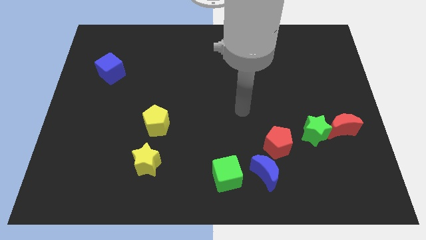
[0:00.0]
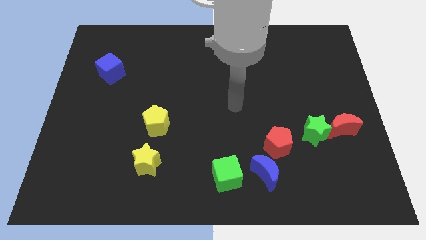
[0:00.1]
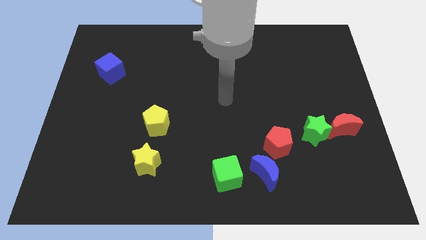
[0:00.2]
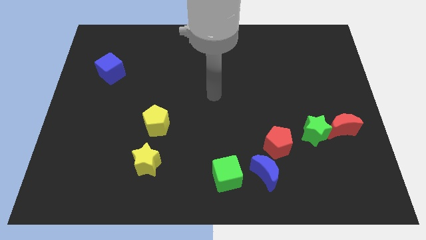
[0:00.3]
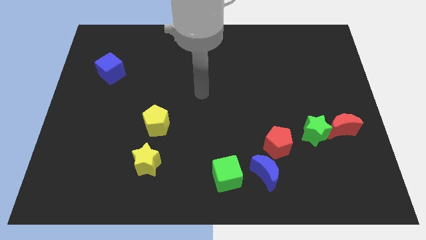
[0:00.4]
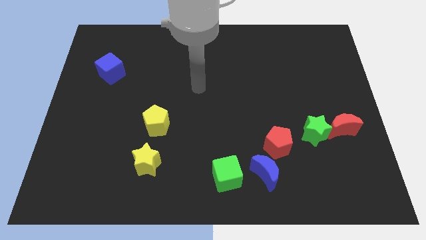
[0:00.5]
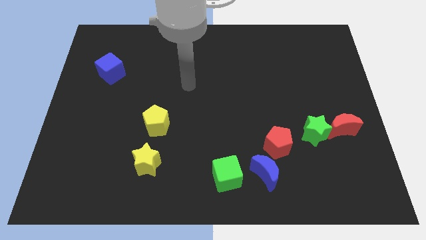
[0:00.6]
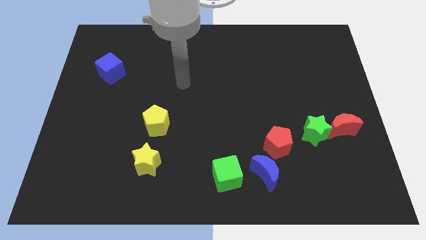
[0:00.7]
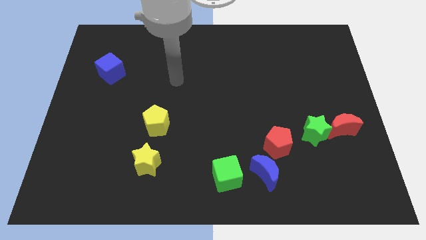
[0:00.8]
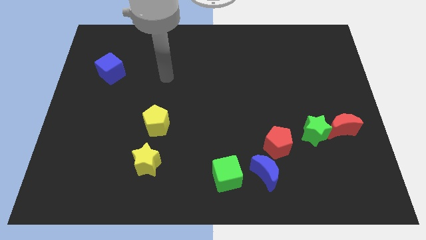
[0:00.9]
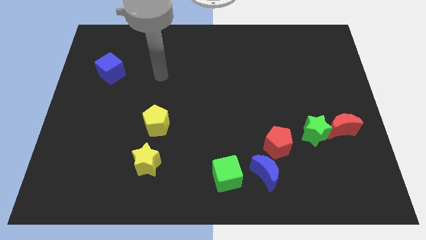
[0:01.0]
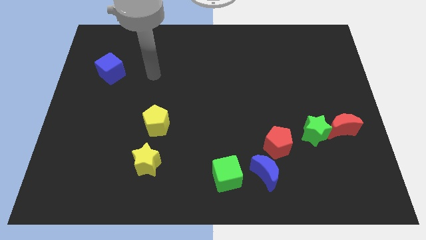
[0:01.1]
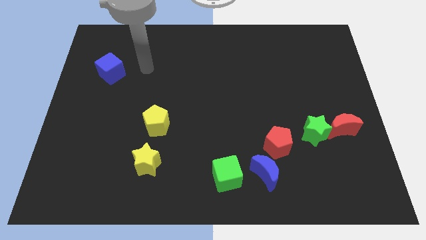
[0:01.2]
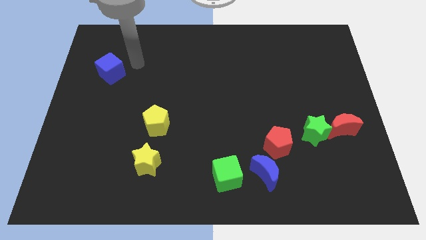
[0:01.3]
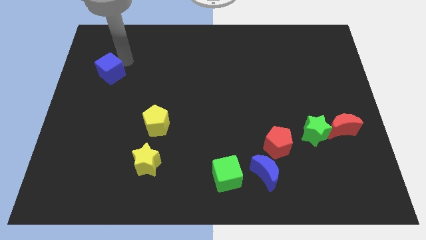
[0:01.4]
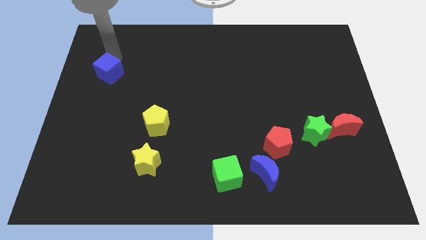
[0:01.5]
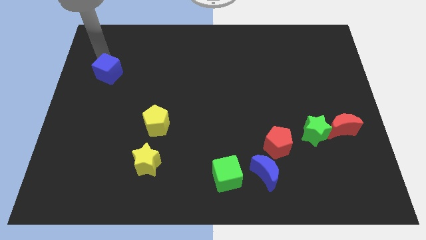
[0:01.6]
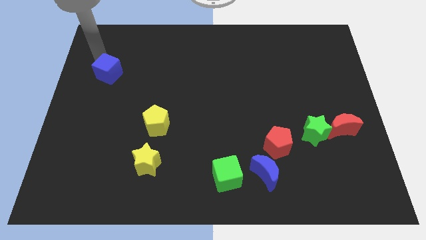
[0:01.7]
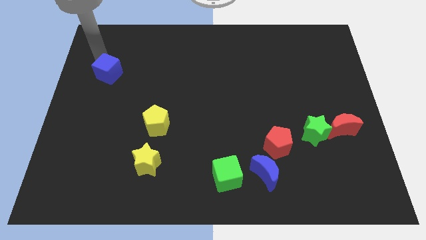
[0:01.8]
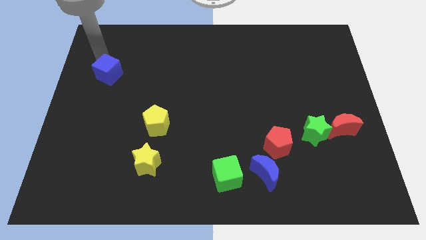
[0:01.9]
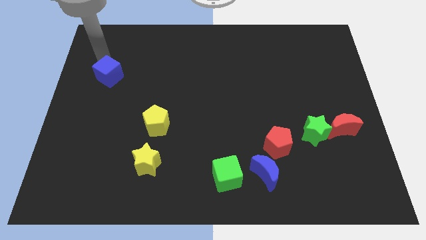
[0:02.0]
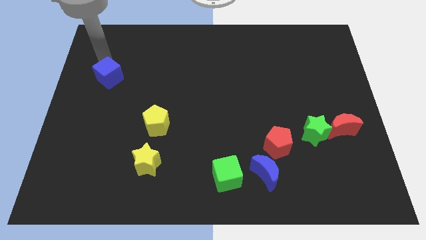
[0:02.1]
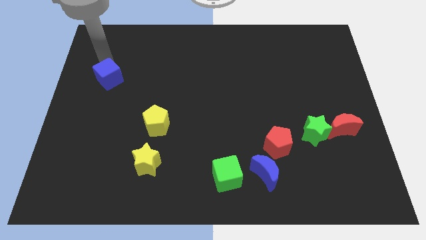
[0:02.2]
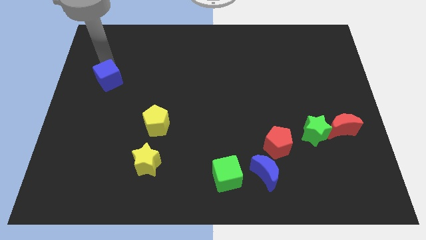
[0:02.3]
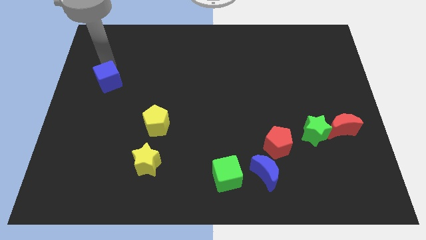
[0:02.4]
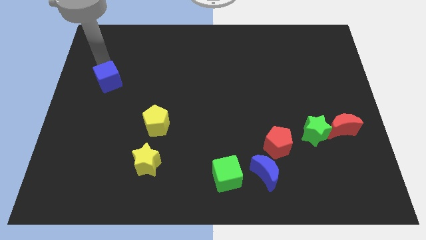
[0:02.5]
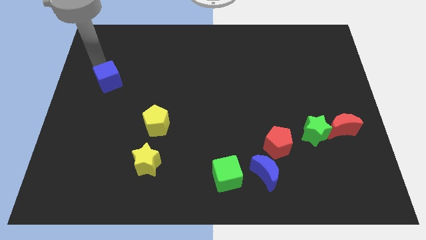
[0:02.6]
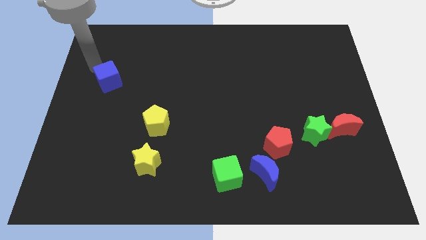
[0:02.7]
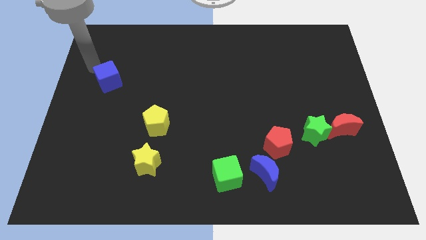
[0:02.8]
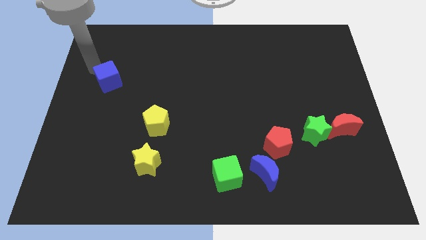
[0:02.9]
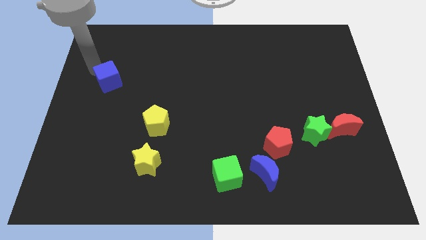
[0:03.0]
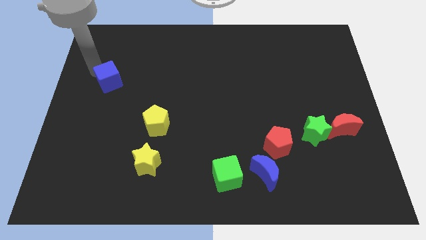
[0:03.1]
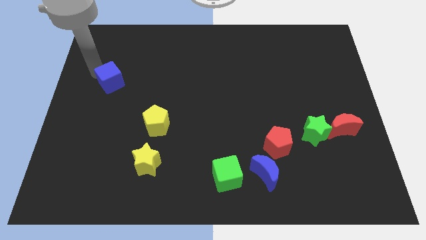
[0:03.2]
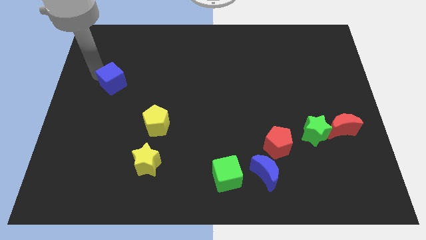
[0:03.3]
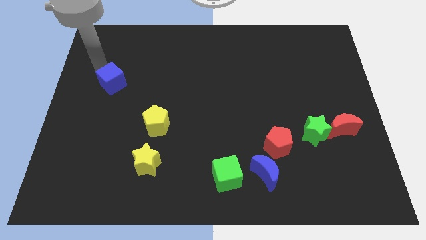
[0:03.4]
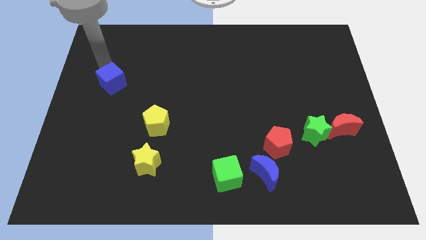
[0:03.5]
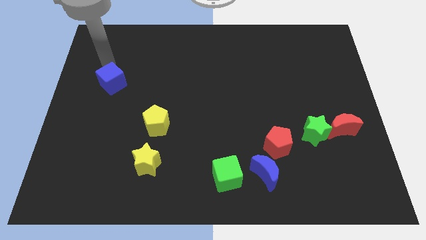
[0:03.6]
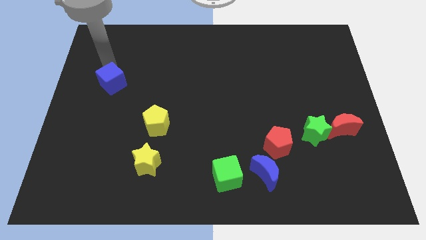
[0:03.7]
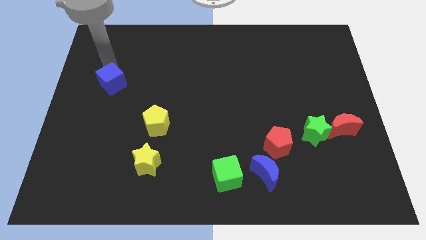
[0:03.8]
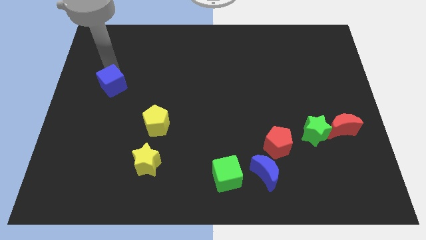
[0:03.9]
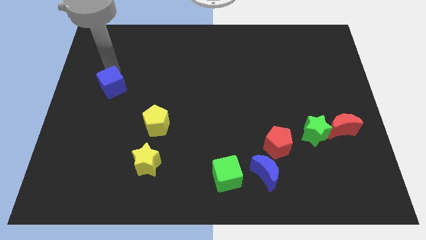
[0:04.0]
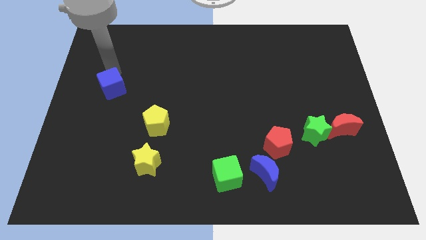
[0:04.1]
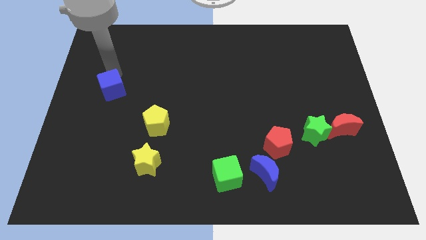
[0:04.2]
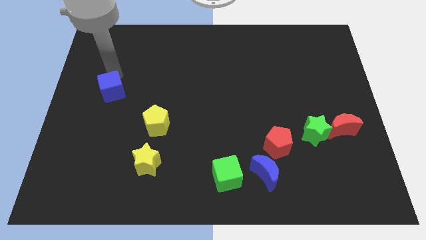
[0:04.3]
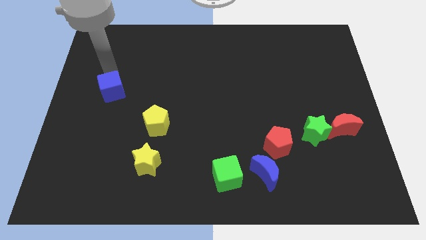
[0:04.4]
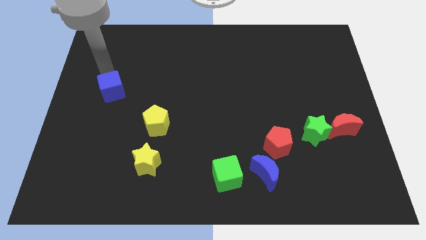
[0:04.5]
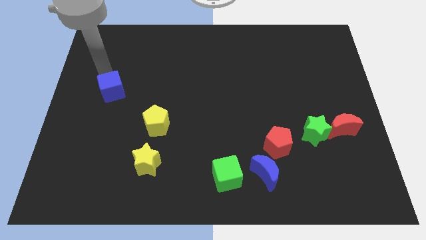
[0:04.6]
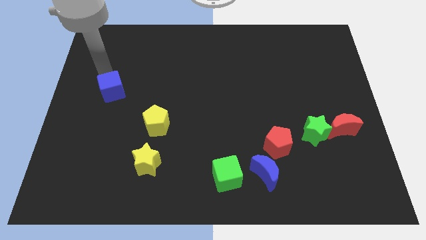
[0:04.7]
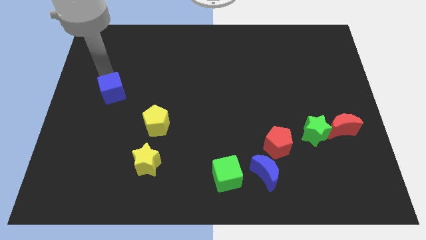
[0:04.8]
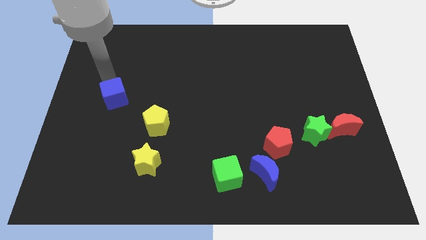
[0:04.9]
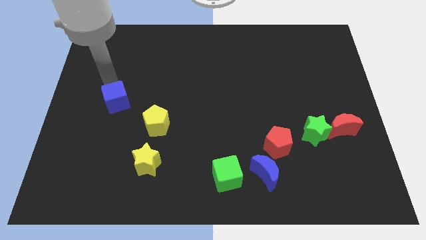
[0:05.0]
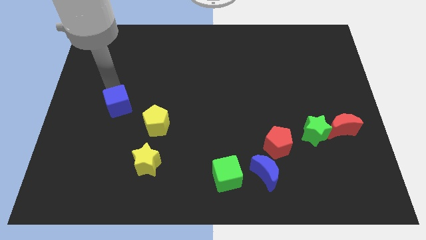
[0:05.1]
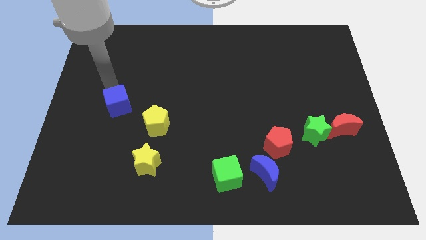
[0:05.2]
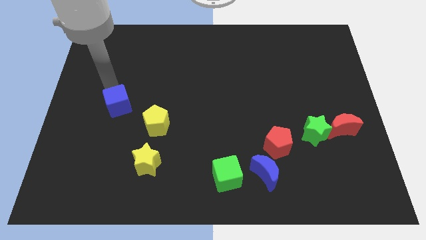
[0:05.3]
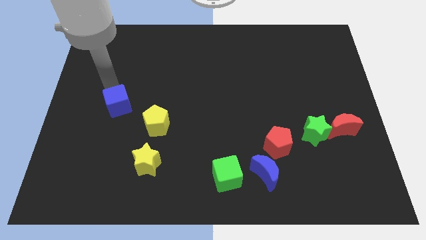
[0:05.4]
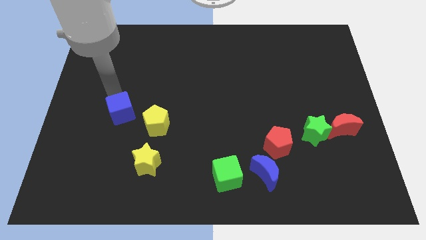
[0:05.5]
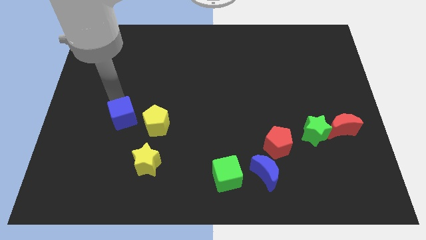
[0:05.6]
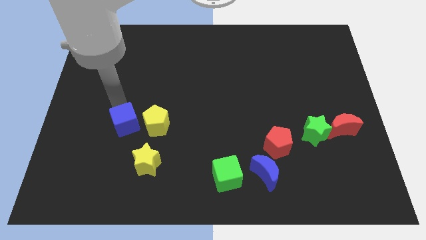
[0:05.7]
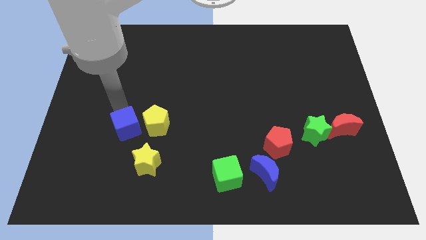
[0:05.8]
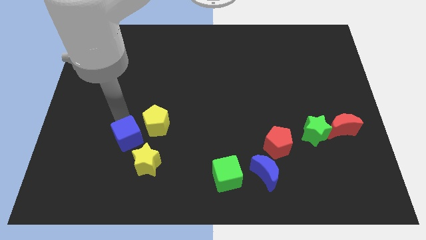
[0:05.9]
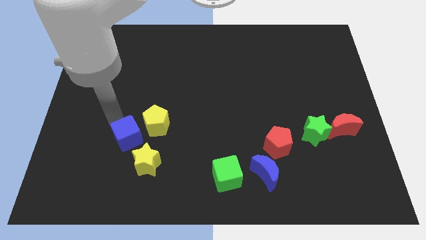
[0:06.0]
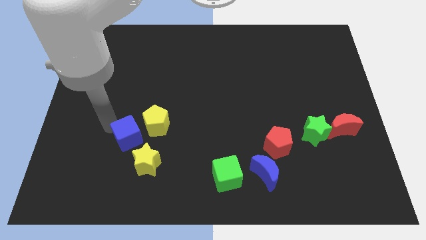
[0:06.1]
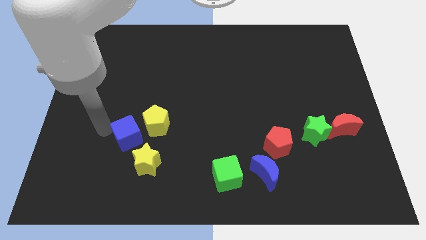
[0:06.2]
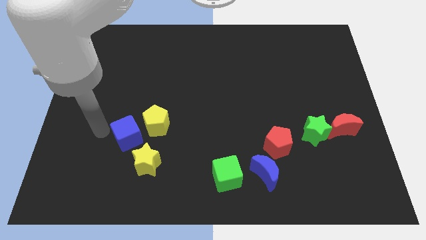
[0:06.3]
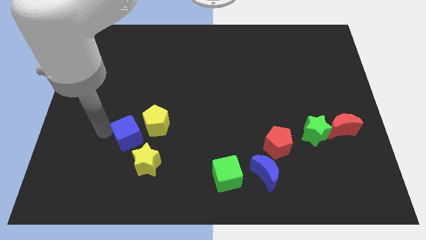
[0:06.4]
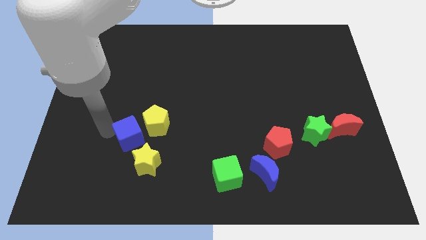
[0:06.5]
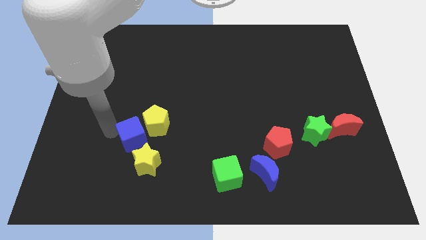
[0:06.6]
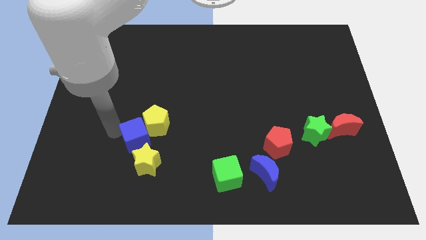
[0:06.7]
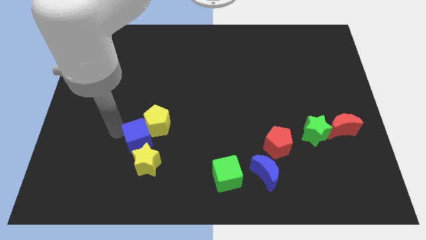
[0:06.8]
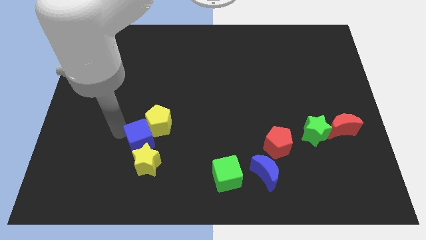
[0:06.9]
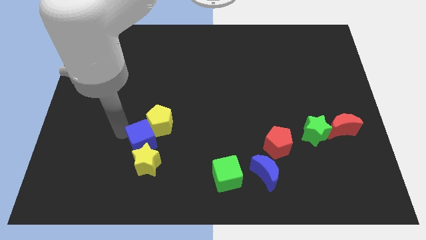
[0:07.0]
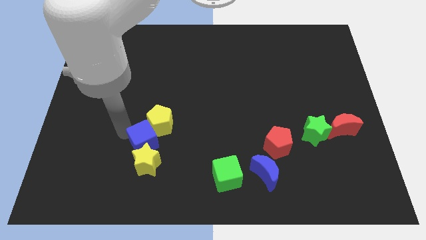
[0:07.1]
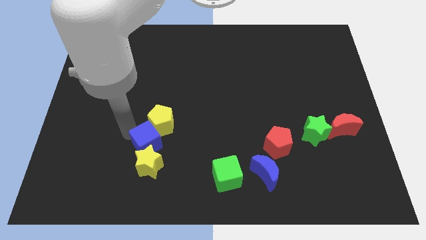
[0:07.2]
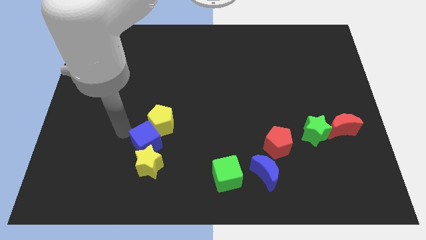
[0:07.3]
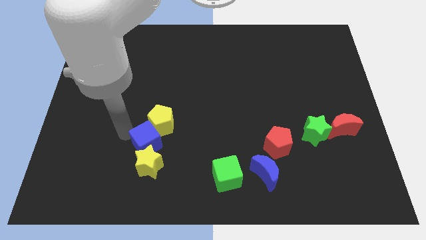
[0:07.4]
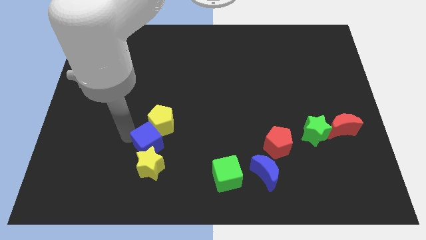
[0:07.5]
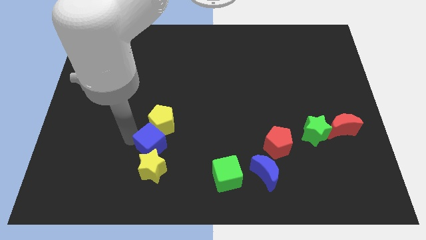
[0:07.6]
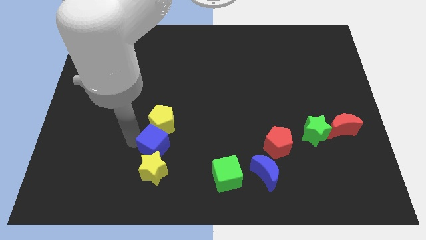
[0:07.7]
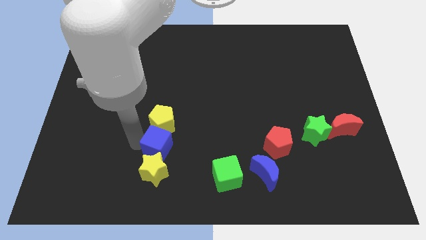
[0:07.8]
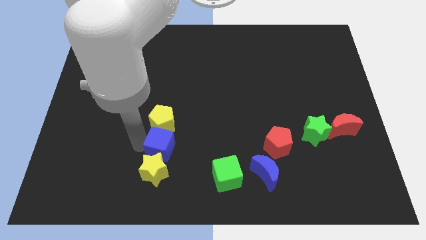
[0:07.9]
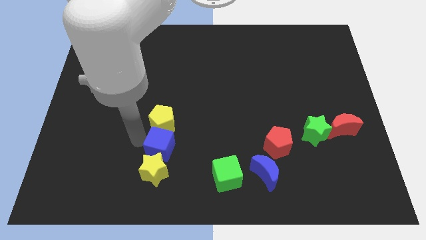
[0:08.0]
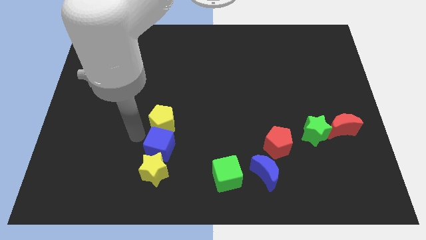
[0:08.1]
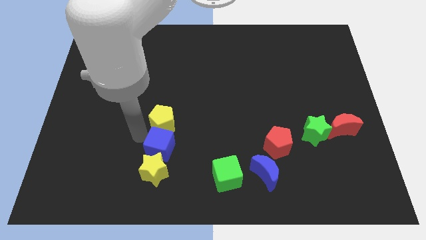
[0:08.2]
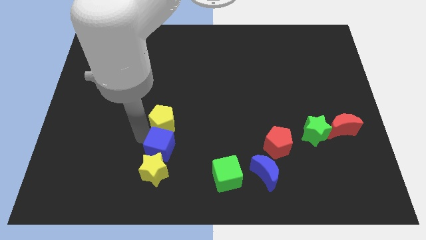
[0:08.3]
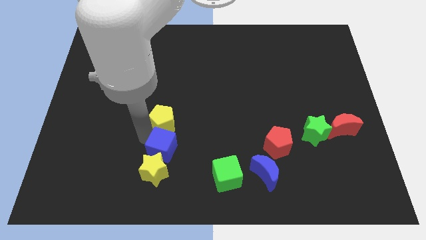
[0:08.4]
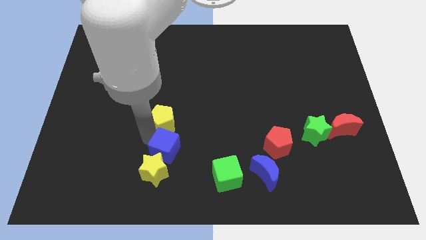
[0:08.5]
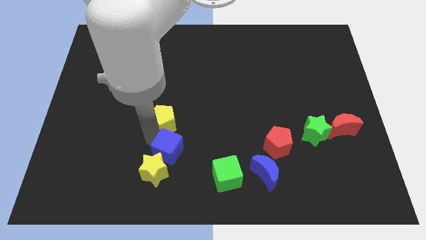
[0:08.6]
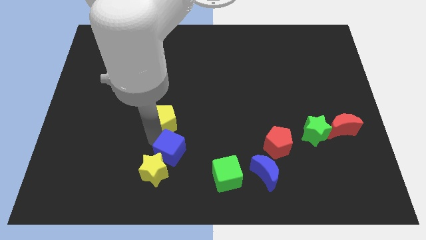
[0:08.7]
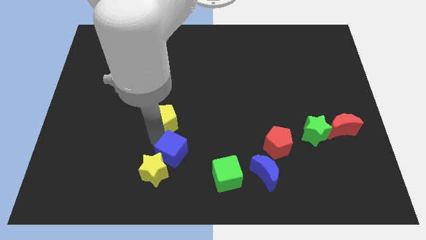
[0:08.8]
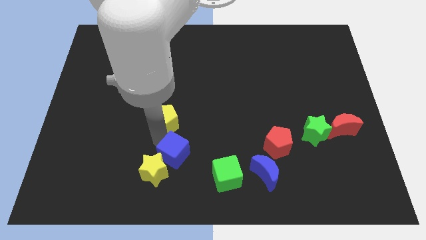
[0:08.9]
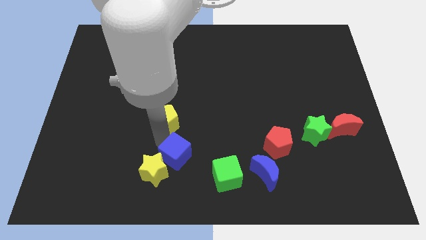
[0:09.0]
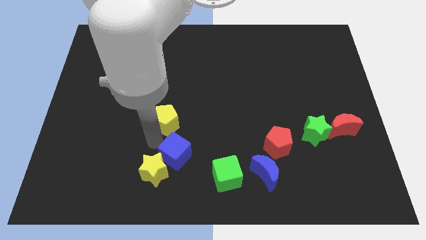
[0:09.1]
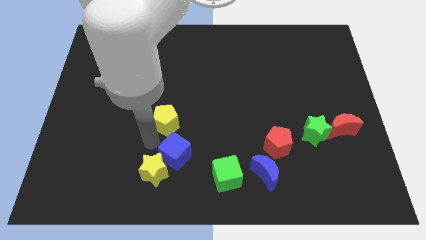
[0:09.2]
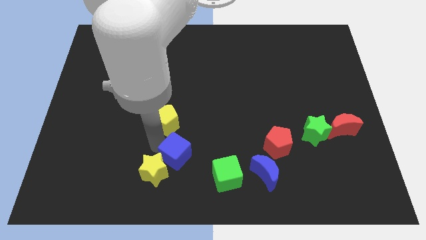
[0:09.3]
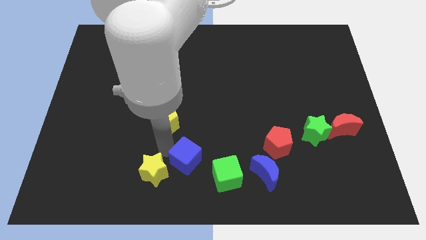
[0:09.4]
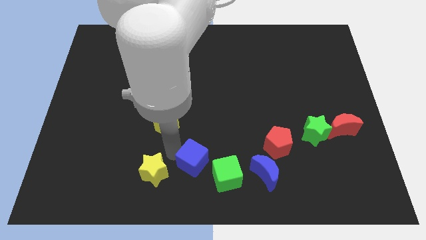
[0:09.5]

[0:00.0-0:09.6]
put the blue cube left of the blue moon
